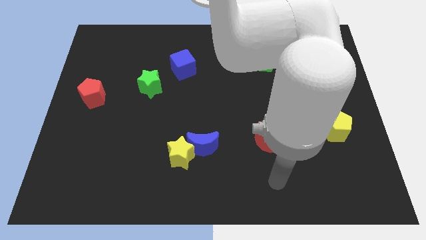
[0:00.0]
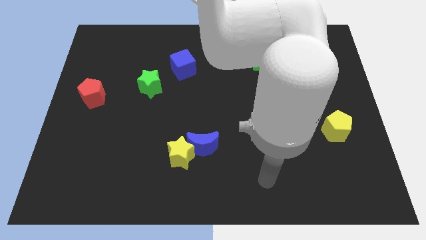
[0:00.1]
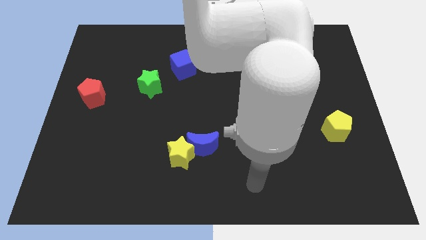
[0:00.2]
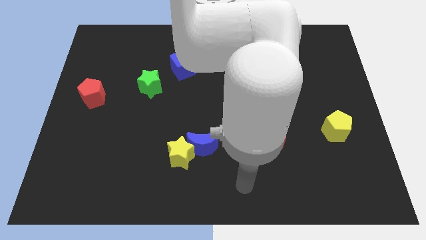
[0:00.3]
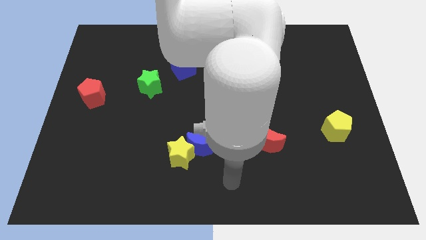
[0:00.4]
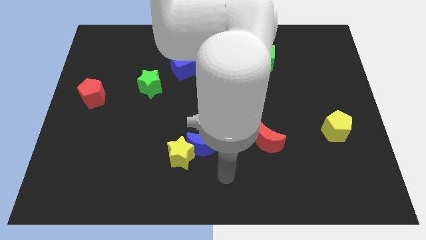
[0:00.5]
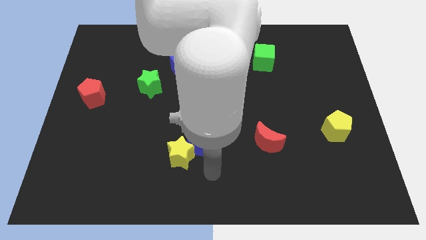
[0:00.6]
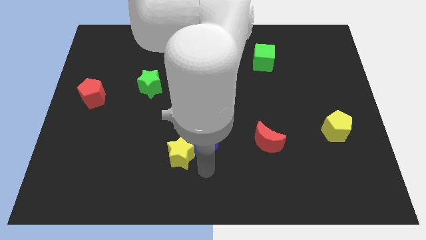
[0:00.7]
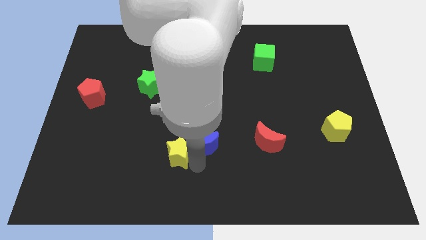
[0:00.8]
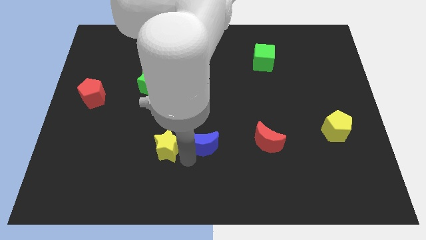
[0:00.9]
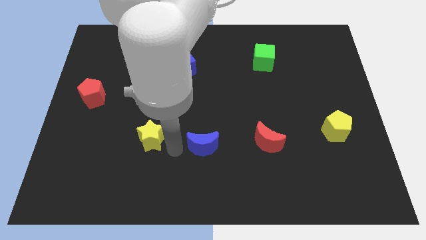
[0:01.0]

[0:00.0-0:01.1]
move the blue moon away from the yellow star

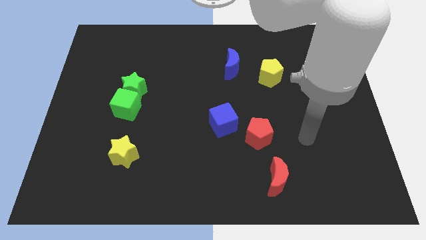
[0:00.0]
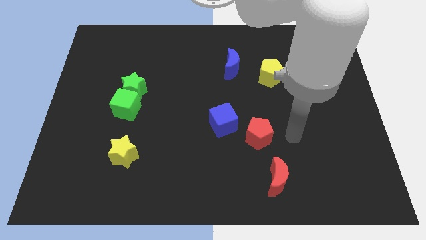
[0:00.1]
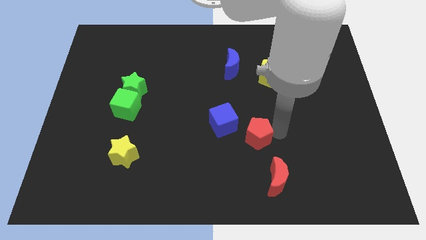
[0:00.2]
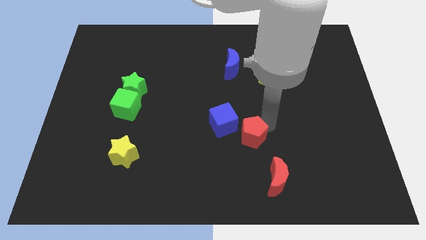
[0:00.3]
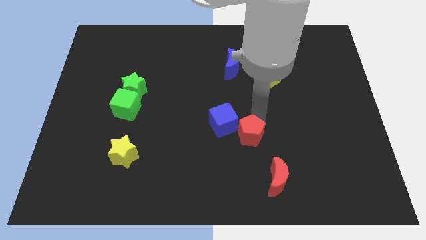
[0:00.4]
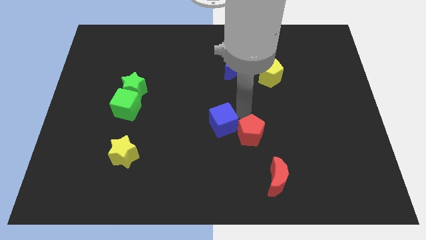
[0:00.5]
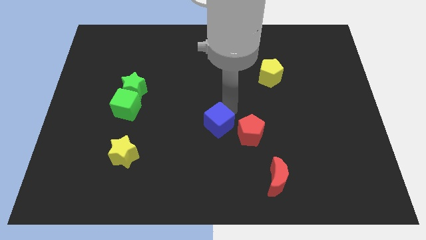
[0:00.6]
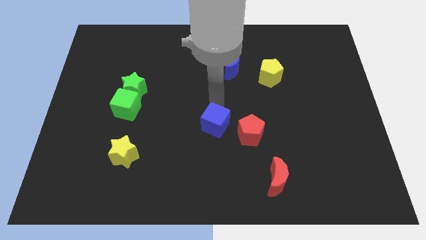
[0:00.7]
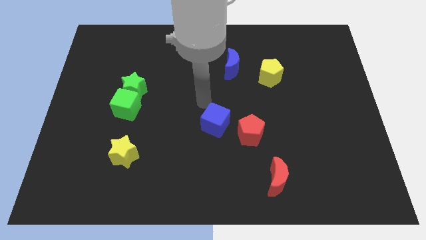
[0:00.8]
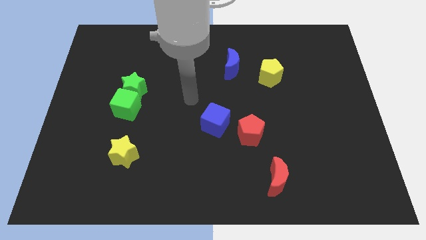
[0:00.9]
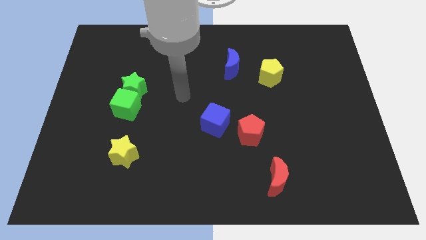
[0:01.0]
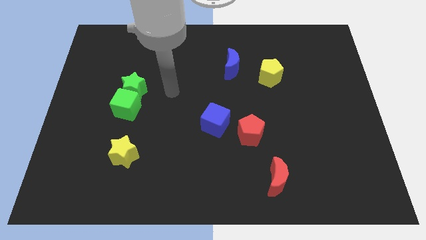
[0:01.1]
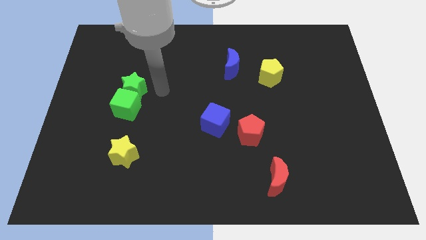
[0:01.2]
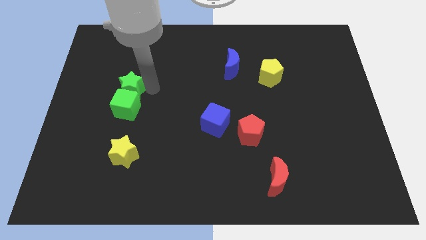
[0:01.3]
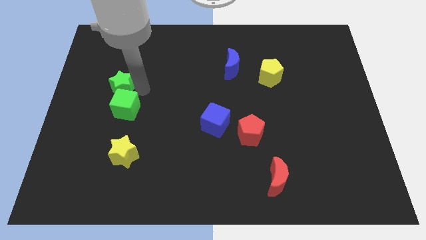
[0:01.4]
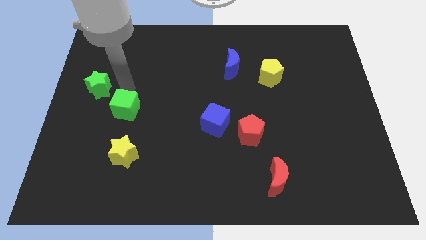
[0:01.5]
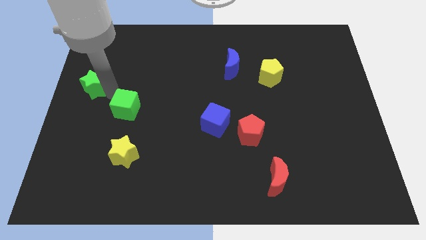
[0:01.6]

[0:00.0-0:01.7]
pull the green cube apart from the green star

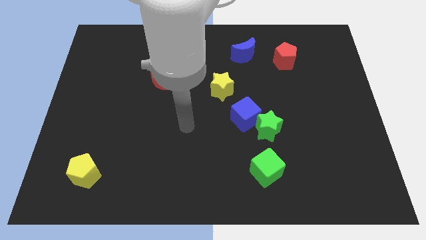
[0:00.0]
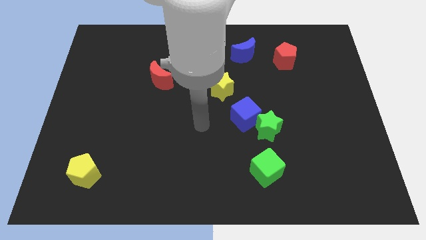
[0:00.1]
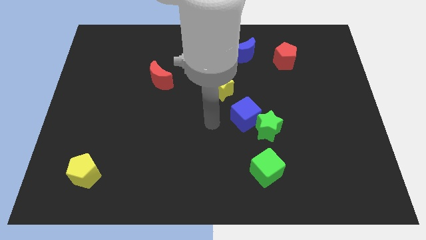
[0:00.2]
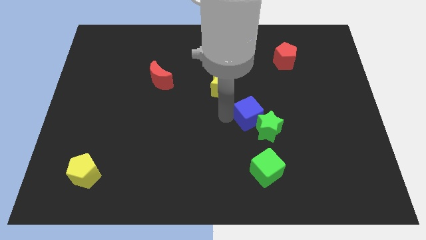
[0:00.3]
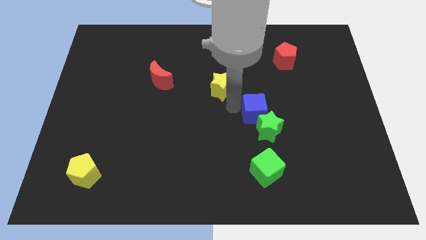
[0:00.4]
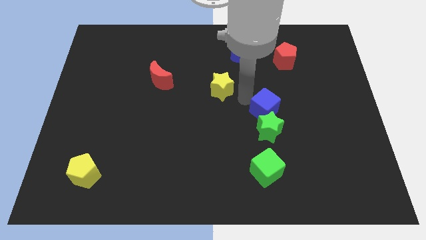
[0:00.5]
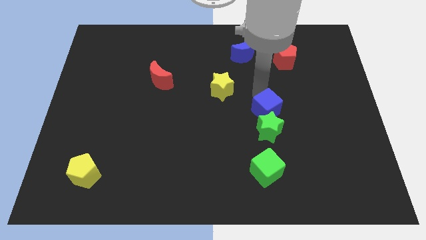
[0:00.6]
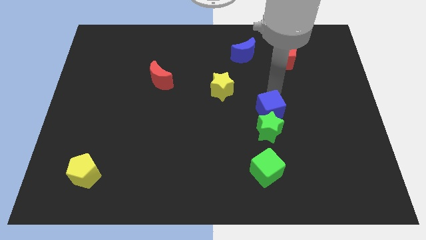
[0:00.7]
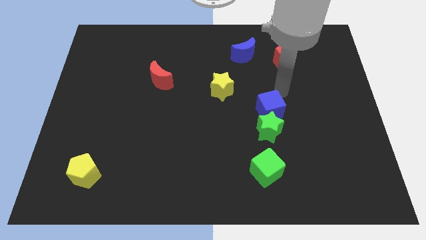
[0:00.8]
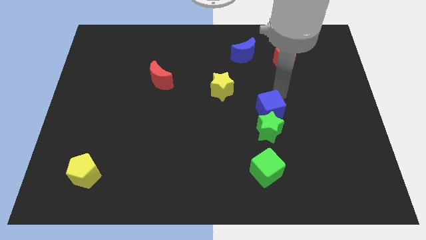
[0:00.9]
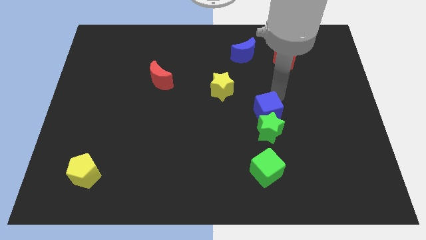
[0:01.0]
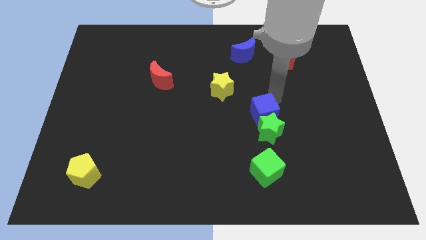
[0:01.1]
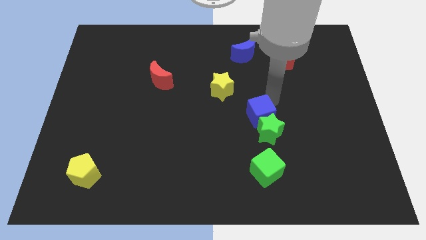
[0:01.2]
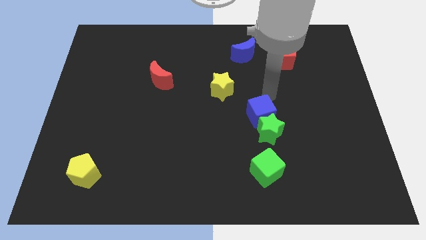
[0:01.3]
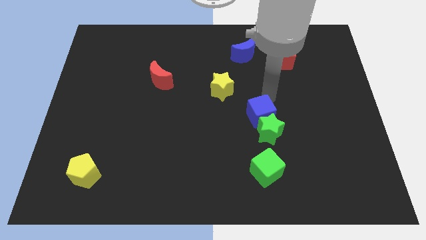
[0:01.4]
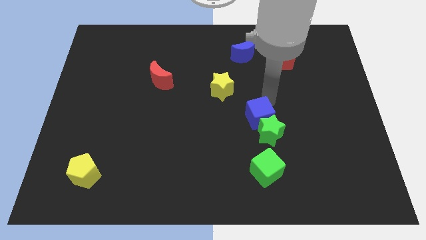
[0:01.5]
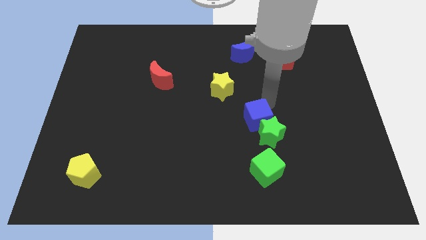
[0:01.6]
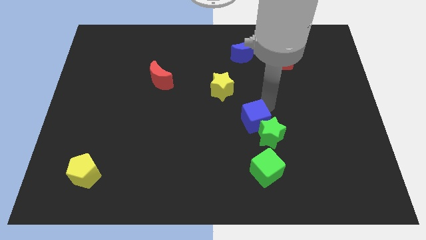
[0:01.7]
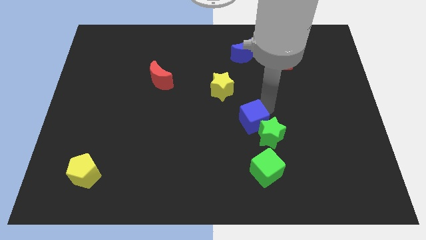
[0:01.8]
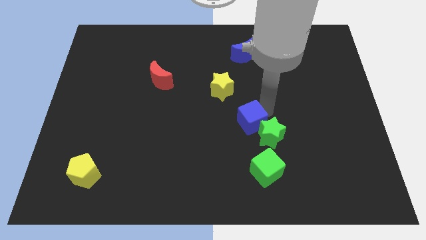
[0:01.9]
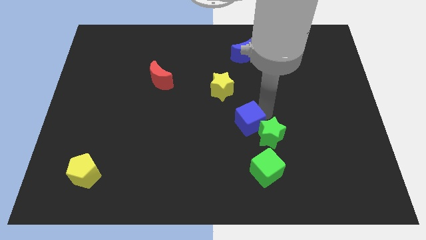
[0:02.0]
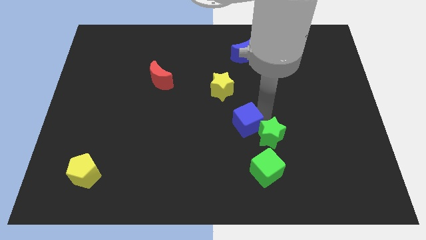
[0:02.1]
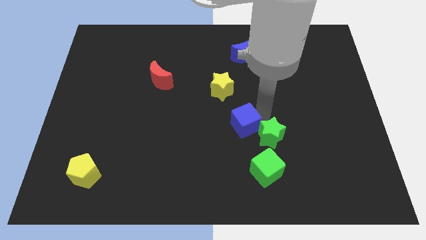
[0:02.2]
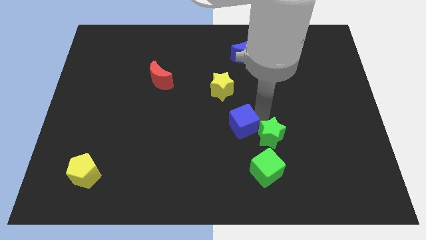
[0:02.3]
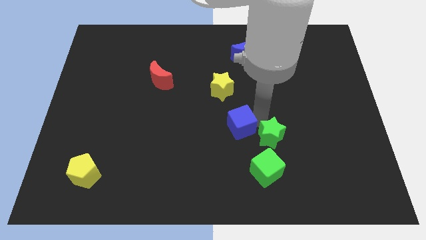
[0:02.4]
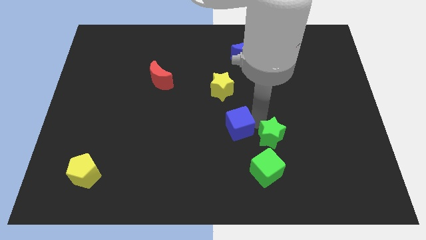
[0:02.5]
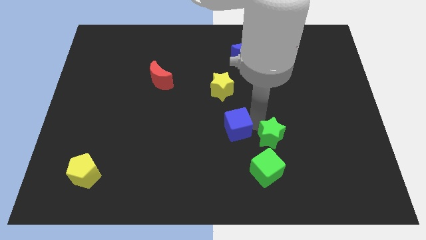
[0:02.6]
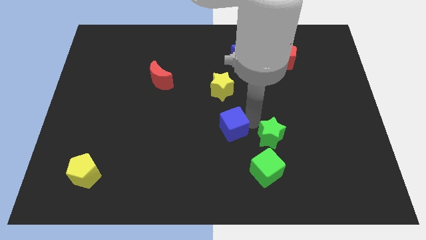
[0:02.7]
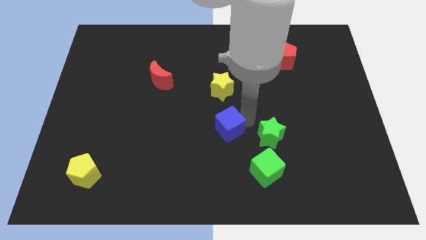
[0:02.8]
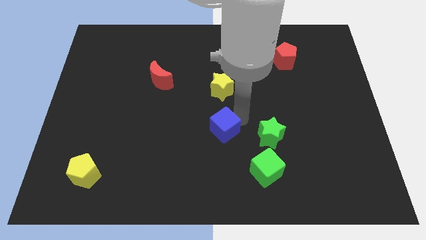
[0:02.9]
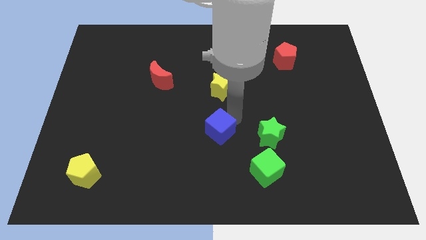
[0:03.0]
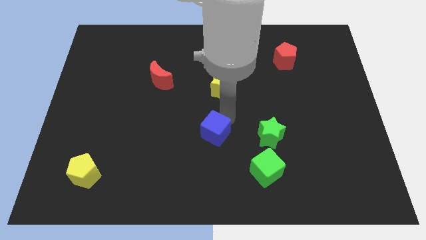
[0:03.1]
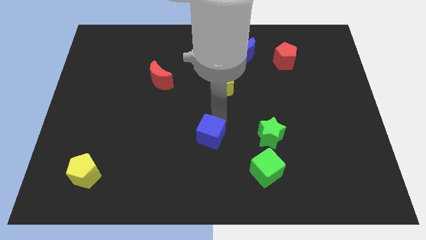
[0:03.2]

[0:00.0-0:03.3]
separate the blue cube from the green star and yellow star

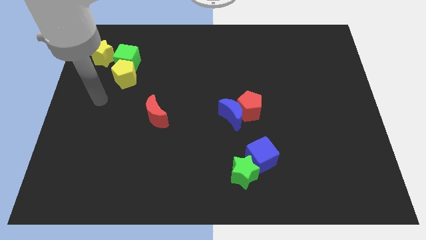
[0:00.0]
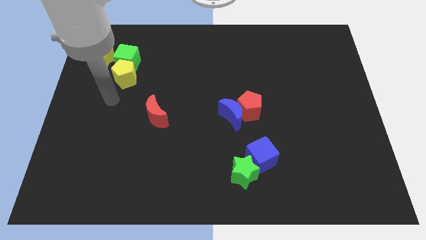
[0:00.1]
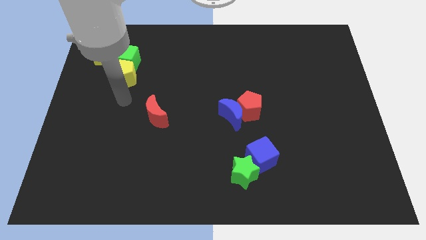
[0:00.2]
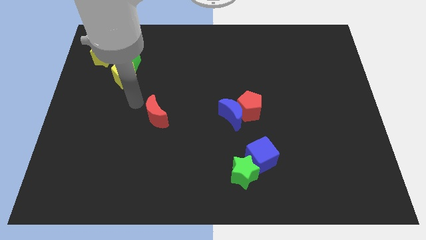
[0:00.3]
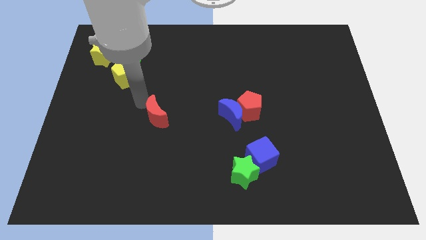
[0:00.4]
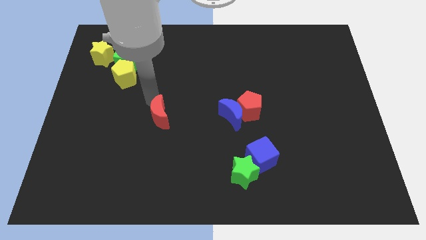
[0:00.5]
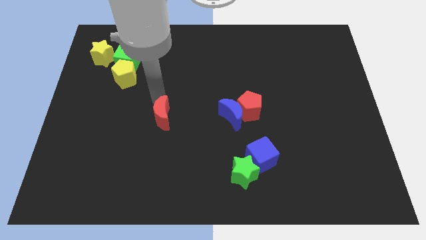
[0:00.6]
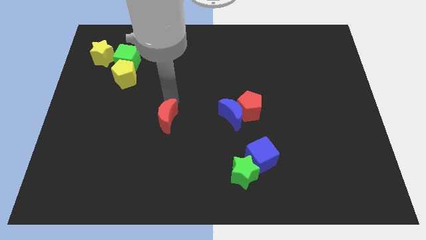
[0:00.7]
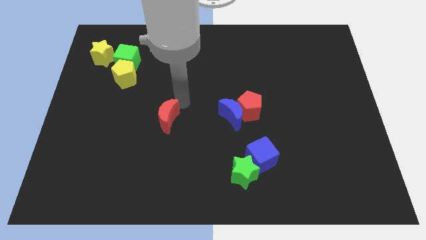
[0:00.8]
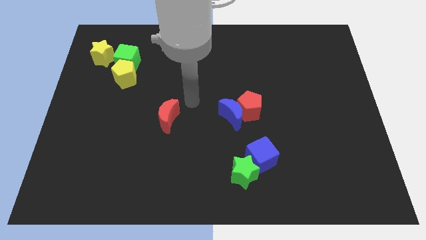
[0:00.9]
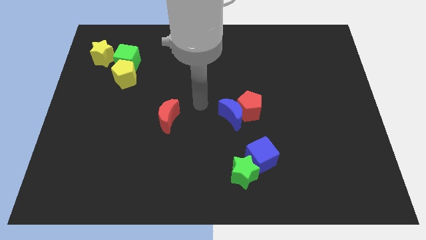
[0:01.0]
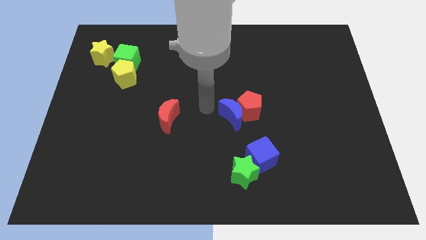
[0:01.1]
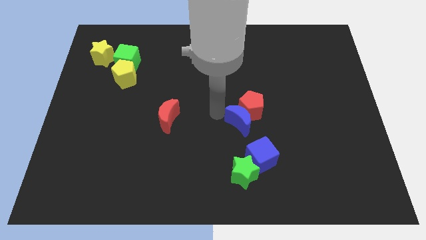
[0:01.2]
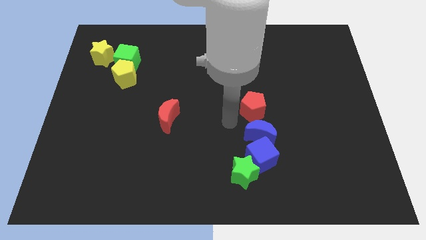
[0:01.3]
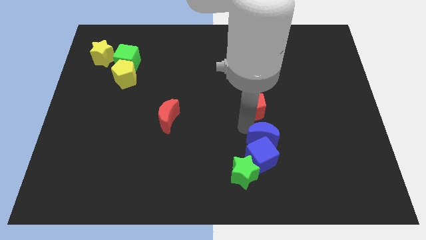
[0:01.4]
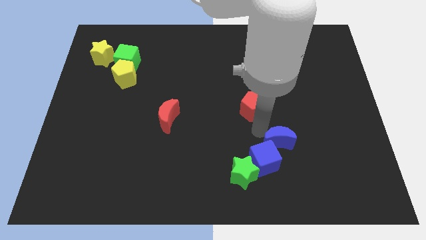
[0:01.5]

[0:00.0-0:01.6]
move the red pentagon away from the blue moon

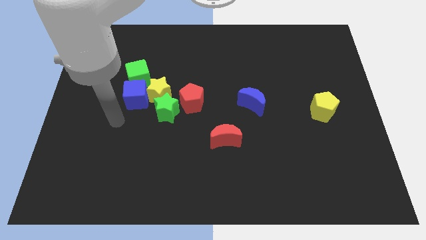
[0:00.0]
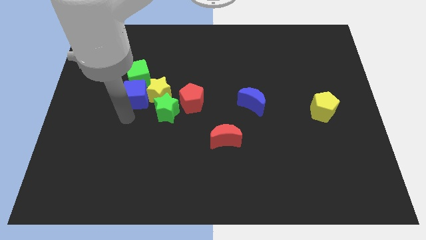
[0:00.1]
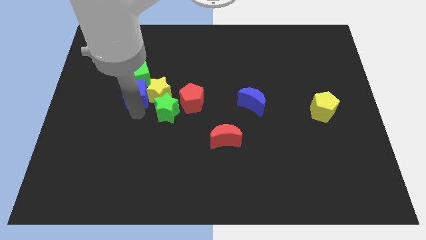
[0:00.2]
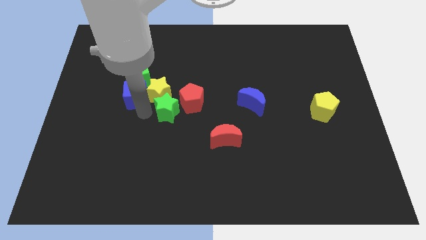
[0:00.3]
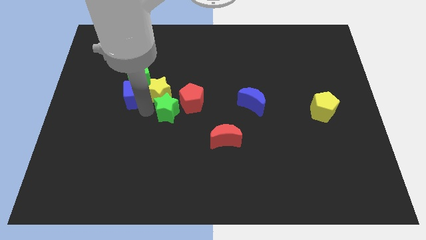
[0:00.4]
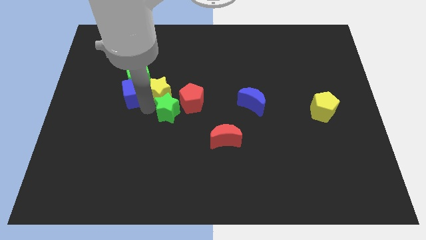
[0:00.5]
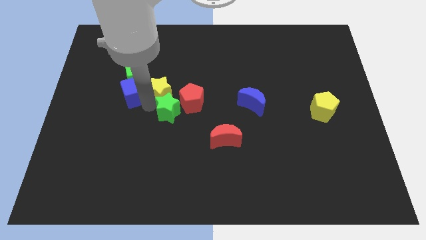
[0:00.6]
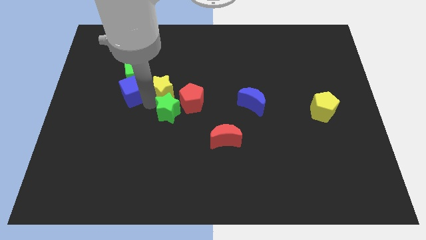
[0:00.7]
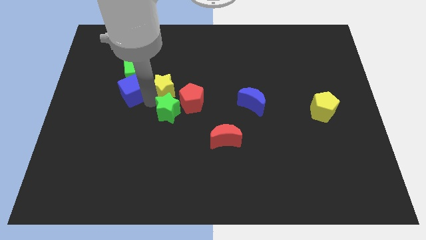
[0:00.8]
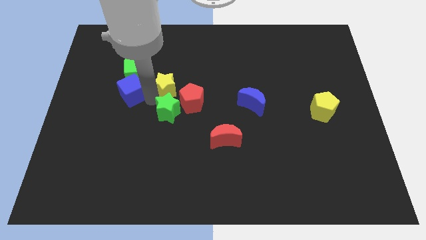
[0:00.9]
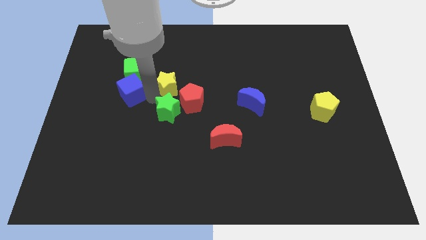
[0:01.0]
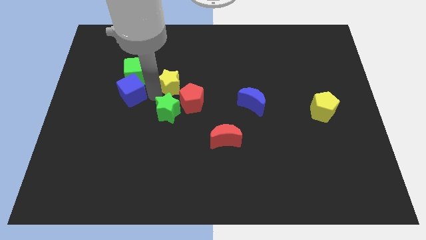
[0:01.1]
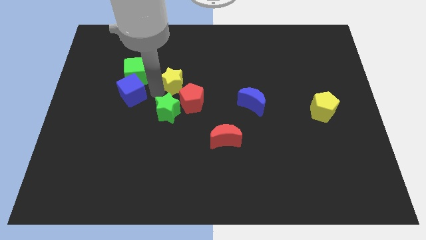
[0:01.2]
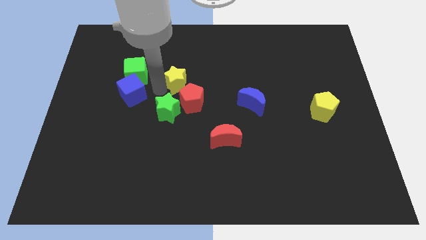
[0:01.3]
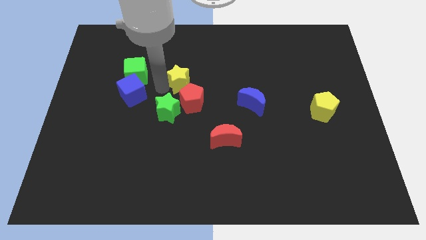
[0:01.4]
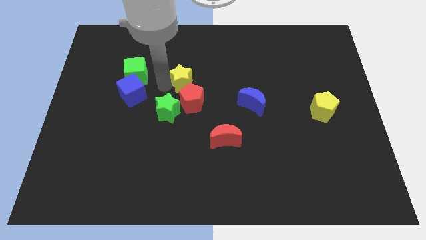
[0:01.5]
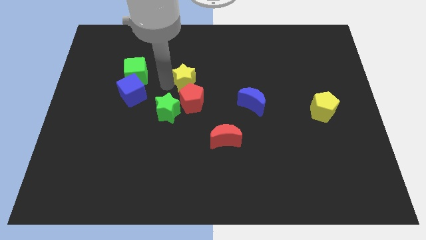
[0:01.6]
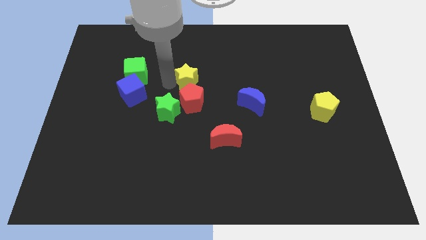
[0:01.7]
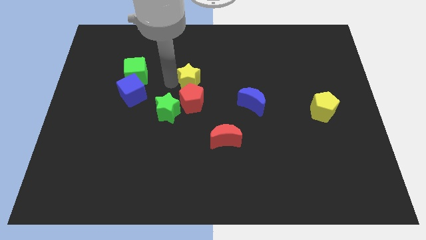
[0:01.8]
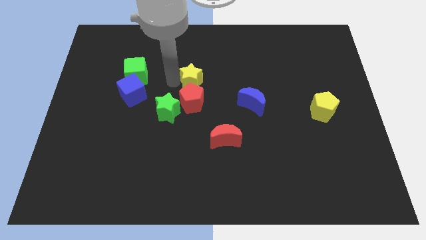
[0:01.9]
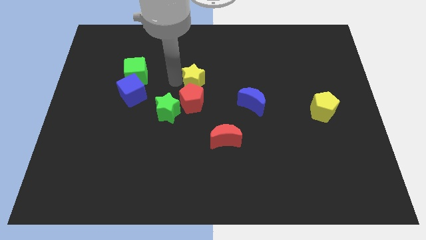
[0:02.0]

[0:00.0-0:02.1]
separate the yellow star from the clump
